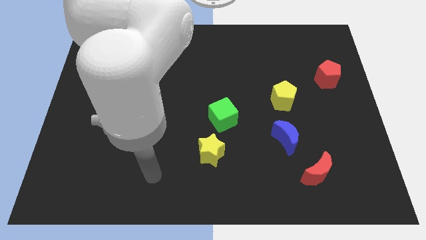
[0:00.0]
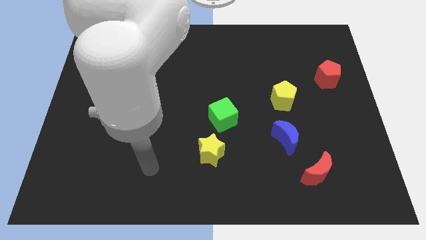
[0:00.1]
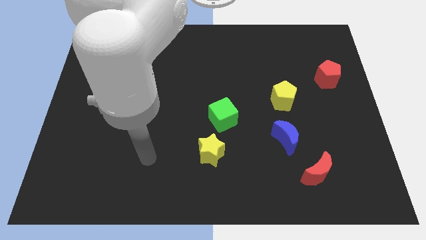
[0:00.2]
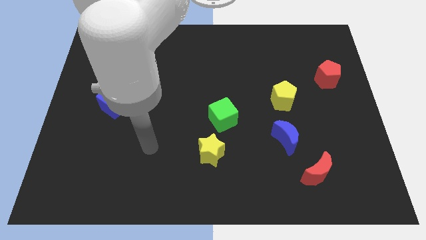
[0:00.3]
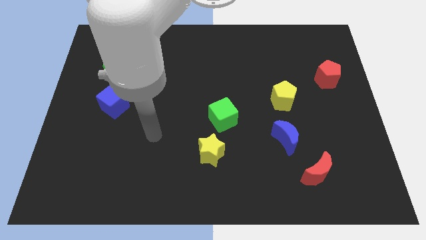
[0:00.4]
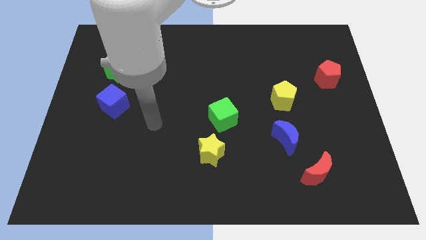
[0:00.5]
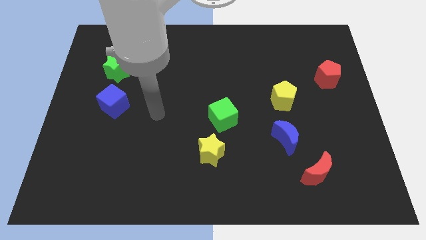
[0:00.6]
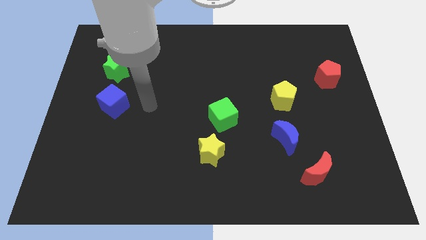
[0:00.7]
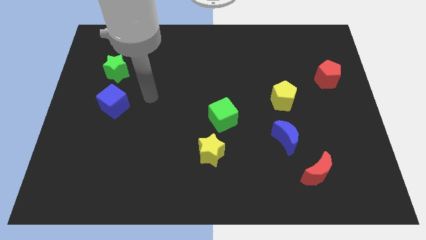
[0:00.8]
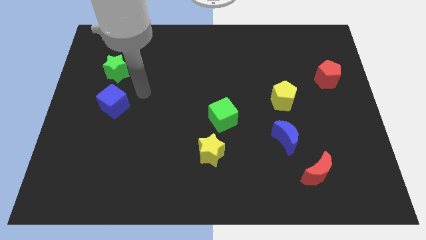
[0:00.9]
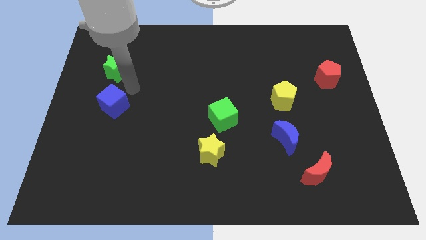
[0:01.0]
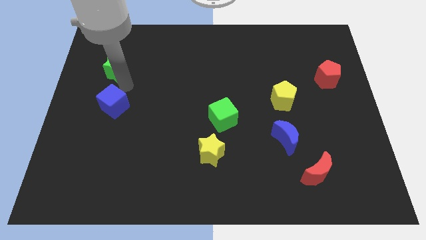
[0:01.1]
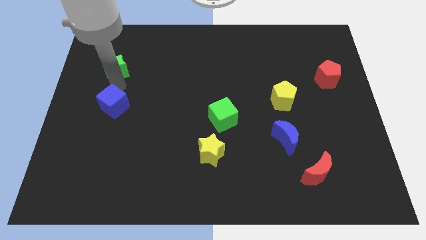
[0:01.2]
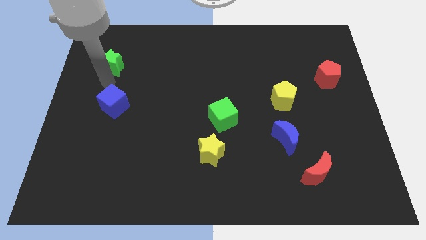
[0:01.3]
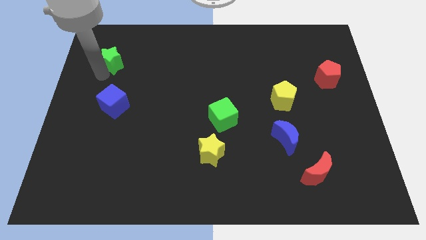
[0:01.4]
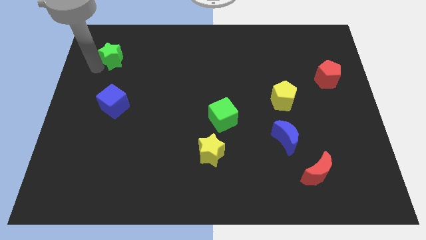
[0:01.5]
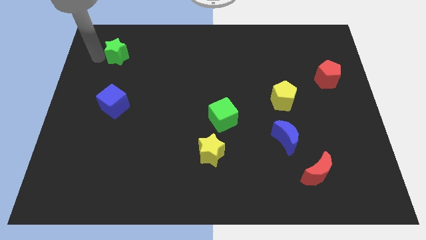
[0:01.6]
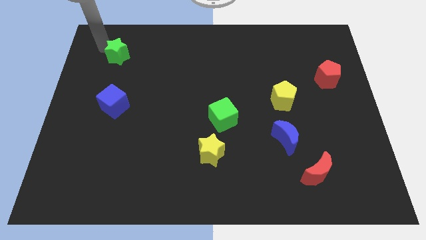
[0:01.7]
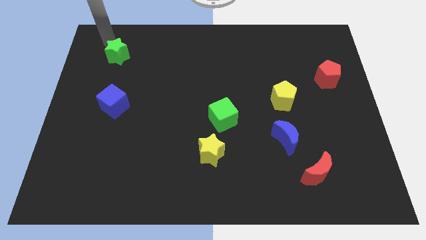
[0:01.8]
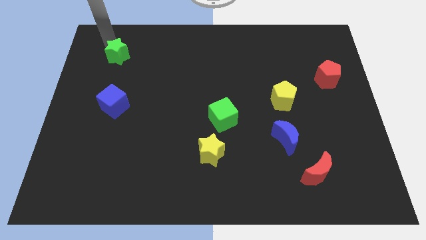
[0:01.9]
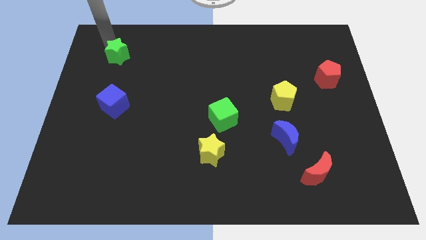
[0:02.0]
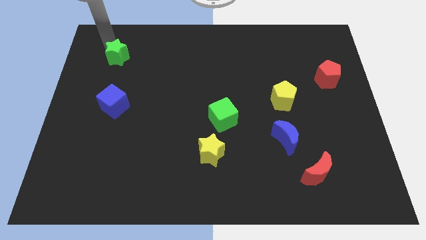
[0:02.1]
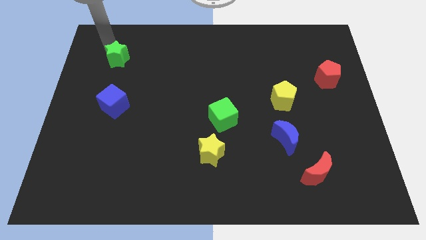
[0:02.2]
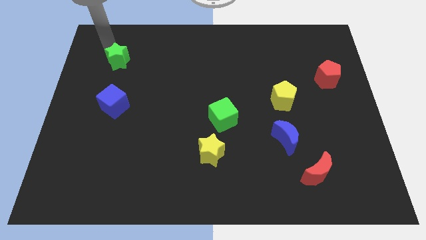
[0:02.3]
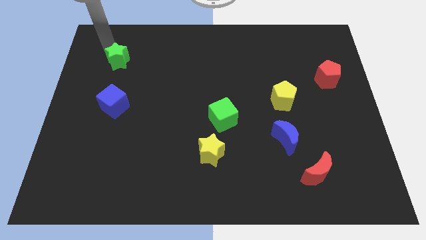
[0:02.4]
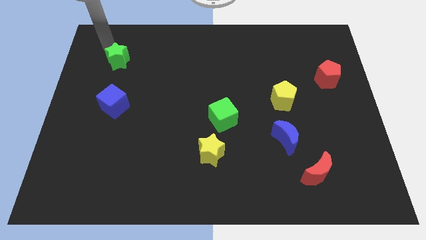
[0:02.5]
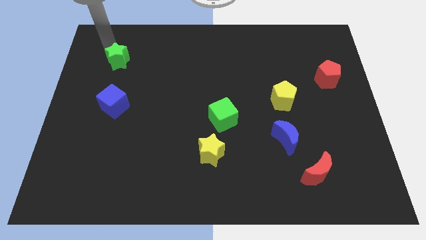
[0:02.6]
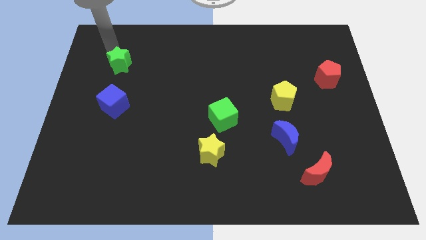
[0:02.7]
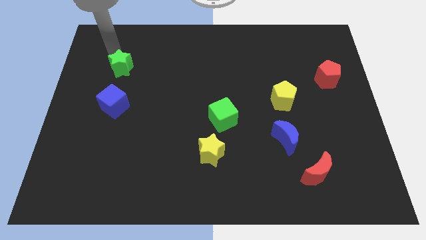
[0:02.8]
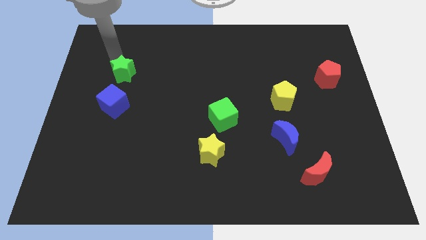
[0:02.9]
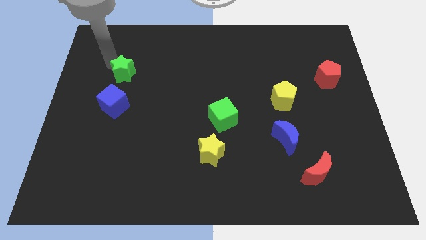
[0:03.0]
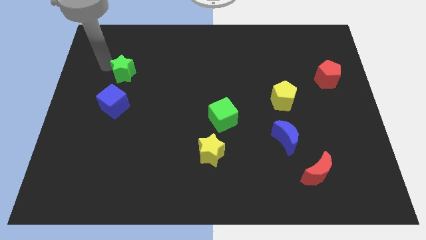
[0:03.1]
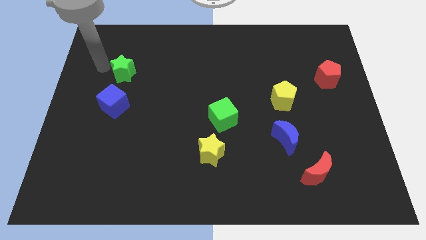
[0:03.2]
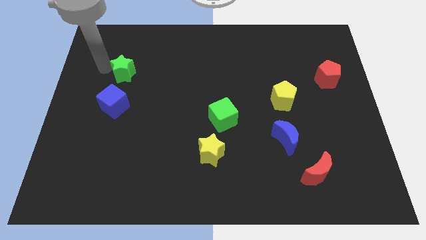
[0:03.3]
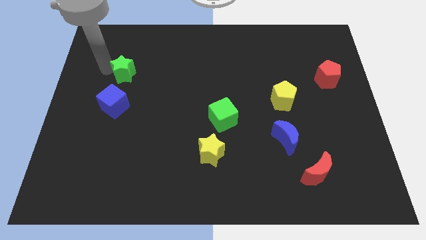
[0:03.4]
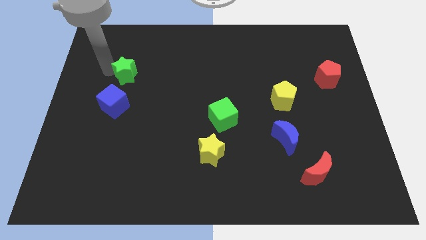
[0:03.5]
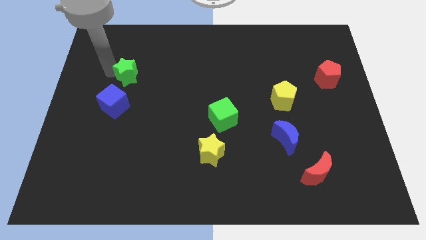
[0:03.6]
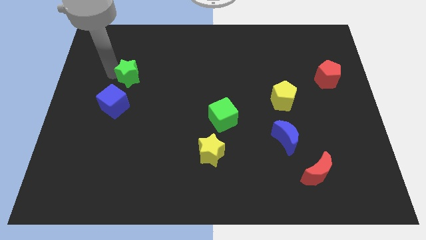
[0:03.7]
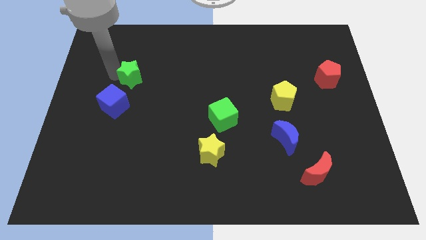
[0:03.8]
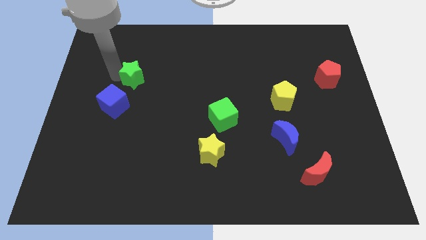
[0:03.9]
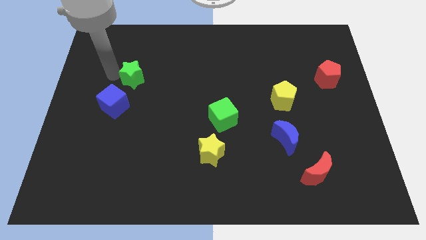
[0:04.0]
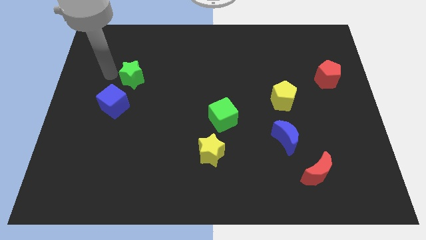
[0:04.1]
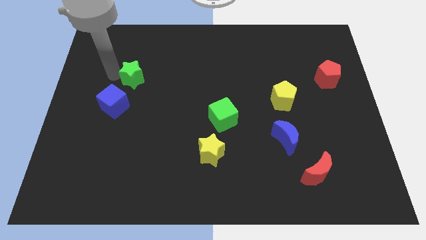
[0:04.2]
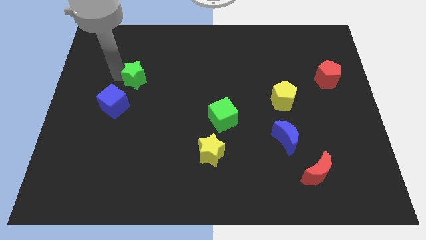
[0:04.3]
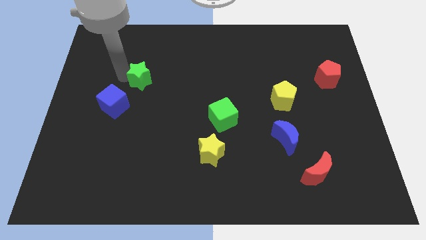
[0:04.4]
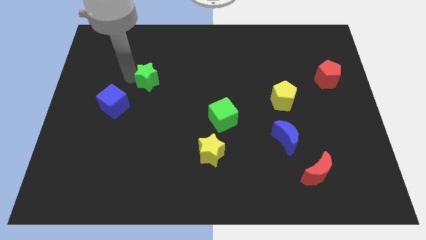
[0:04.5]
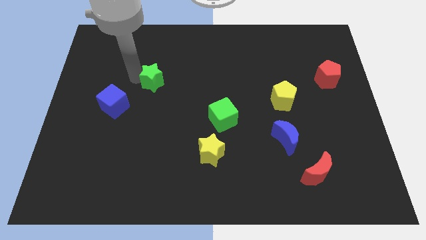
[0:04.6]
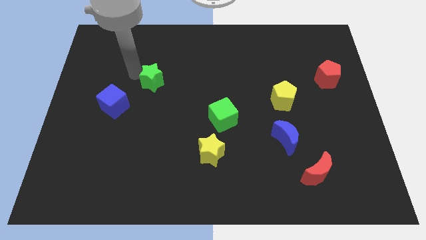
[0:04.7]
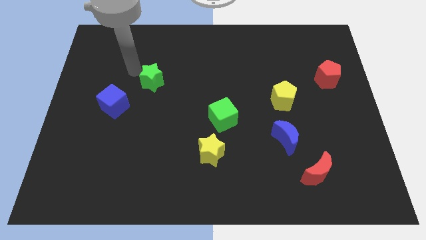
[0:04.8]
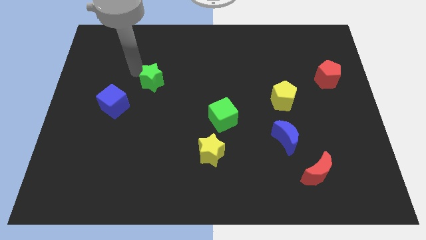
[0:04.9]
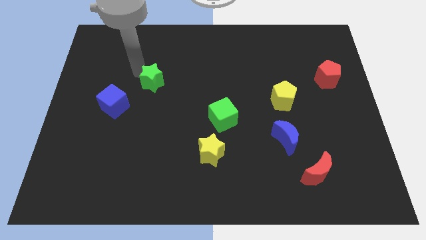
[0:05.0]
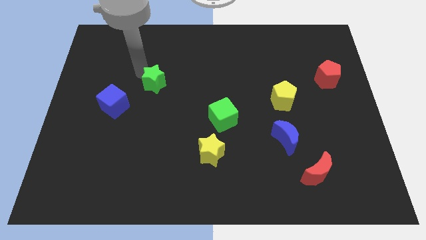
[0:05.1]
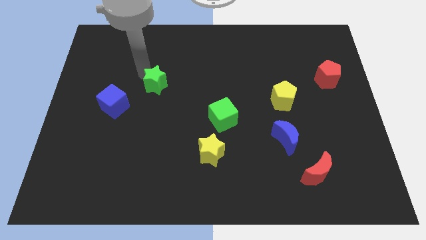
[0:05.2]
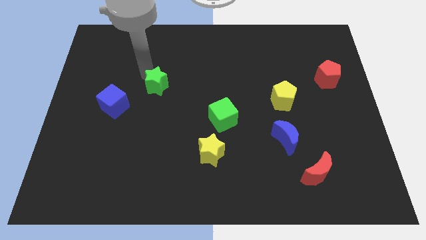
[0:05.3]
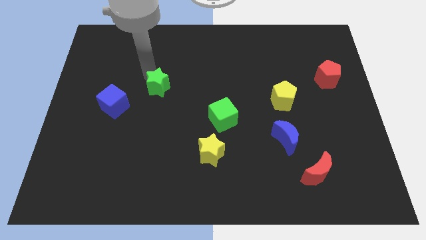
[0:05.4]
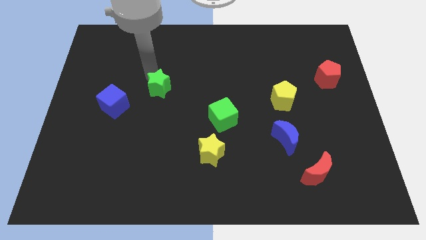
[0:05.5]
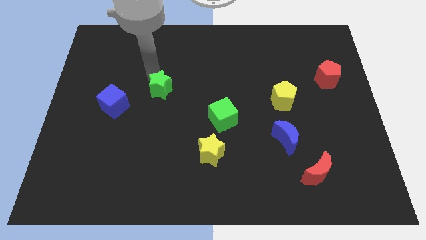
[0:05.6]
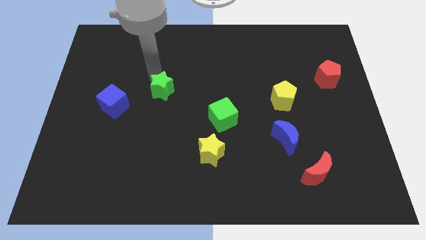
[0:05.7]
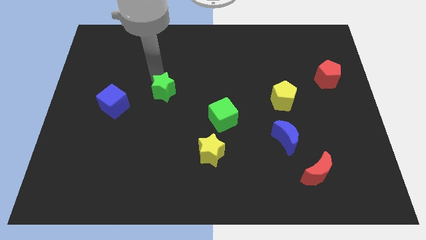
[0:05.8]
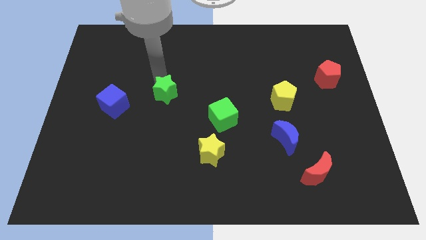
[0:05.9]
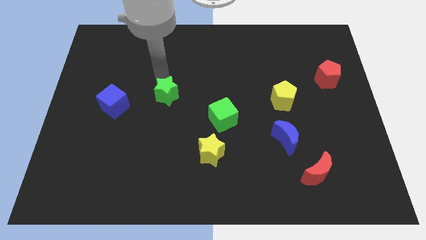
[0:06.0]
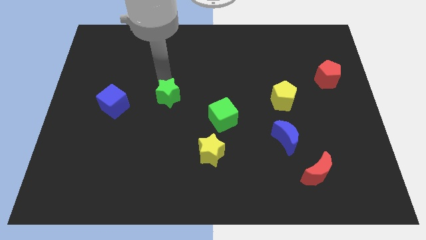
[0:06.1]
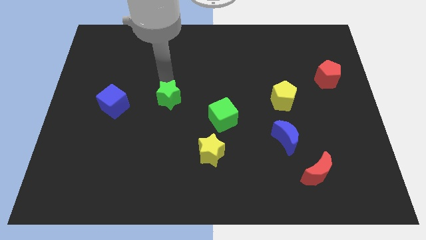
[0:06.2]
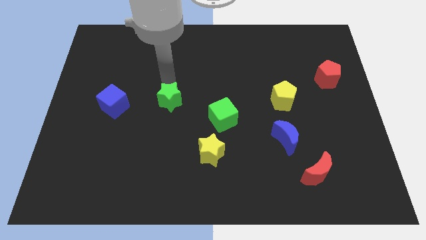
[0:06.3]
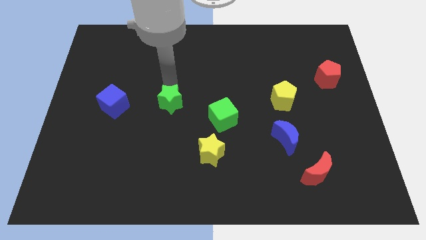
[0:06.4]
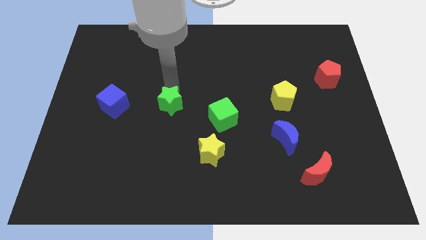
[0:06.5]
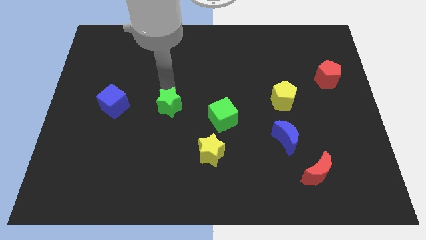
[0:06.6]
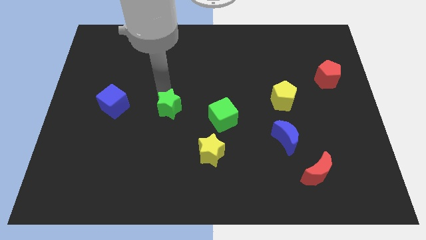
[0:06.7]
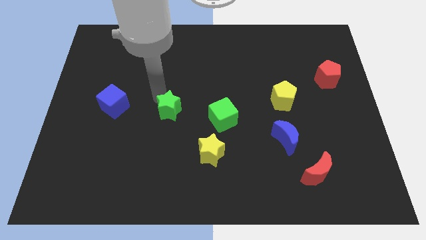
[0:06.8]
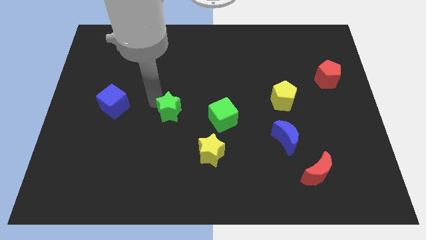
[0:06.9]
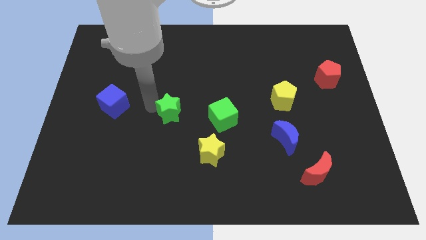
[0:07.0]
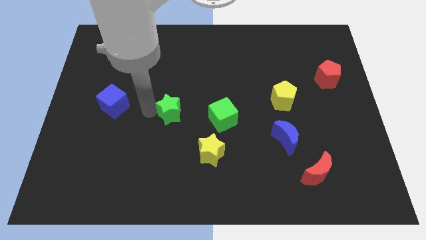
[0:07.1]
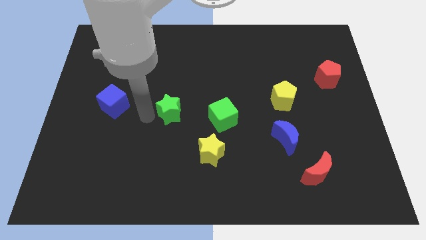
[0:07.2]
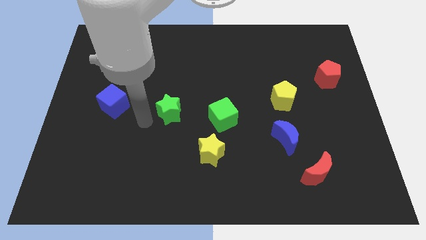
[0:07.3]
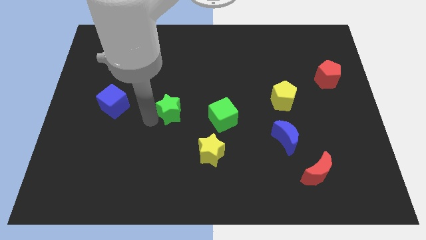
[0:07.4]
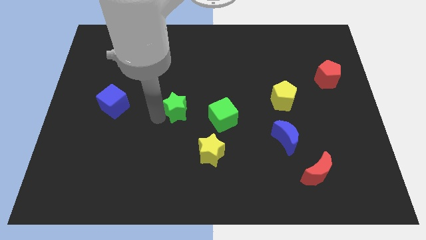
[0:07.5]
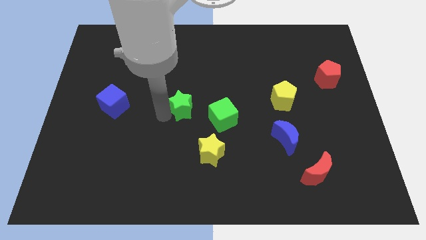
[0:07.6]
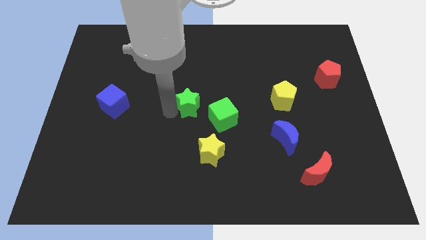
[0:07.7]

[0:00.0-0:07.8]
put the green star to the top of the yellow star
